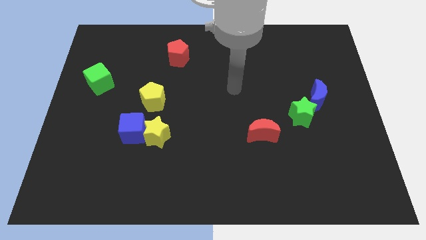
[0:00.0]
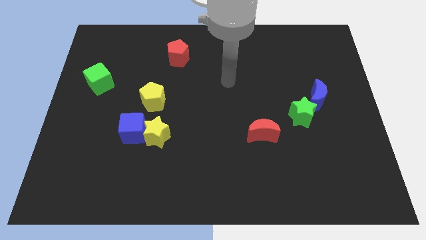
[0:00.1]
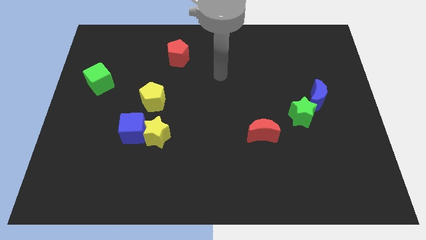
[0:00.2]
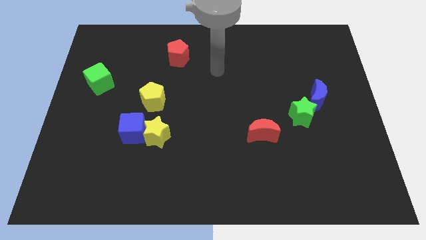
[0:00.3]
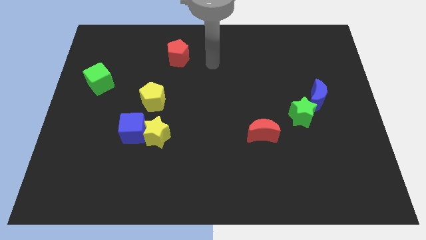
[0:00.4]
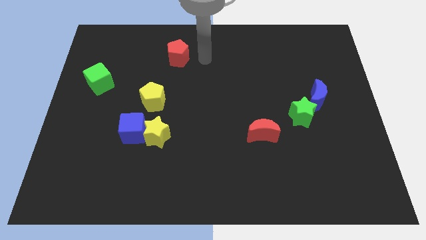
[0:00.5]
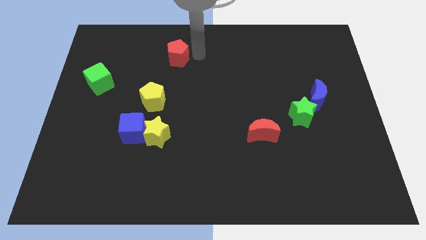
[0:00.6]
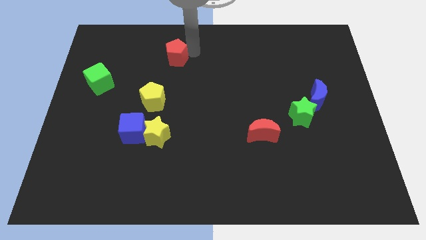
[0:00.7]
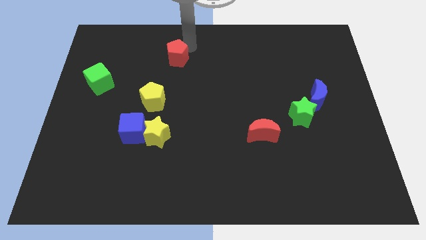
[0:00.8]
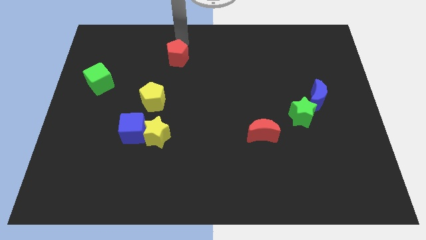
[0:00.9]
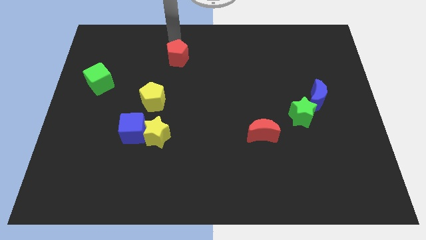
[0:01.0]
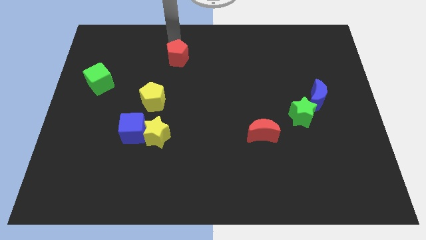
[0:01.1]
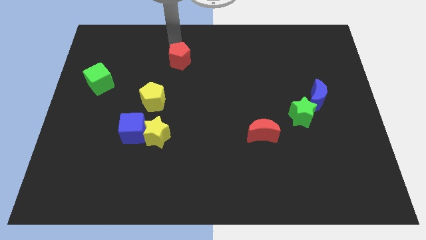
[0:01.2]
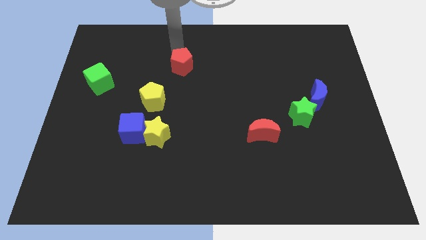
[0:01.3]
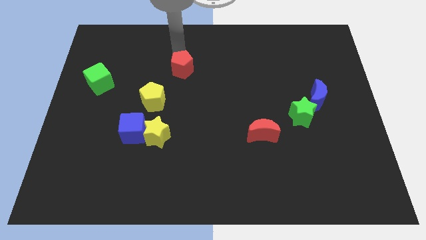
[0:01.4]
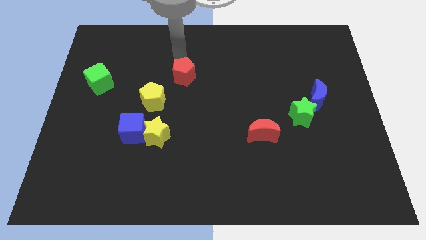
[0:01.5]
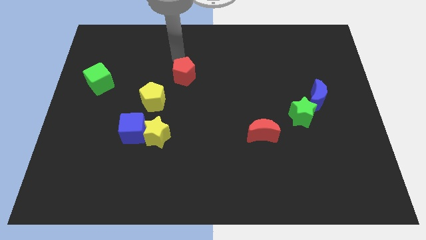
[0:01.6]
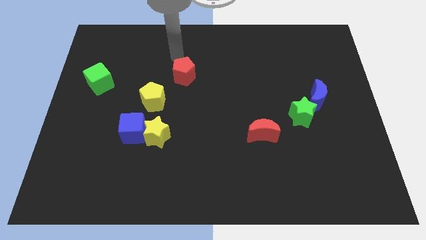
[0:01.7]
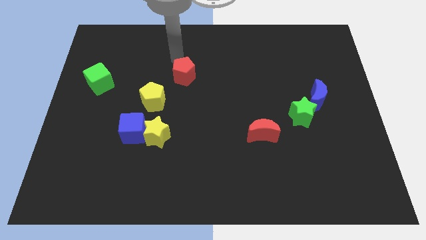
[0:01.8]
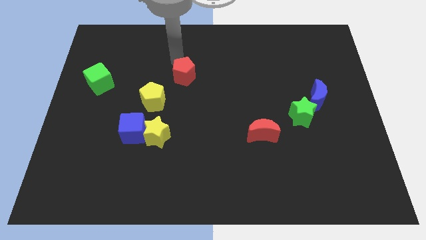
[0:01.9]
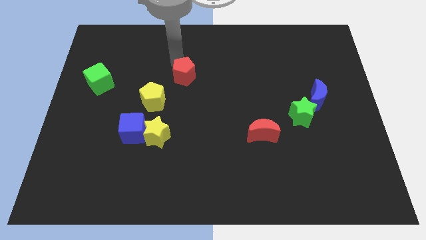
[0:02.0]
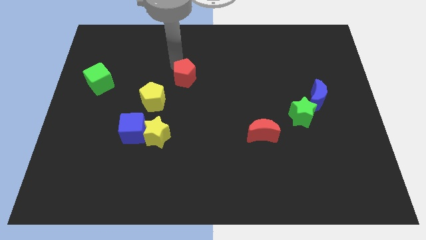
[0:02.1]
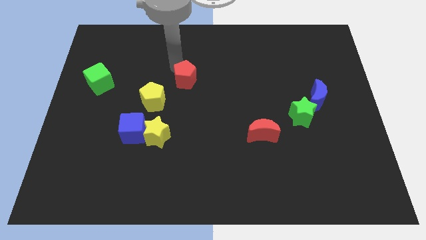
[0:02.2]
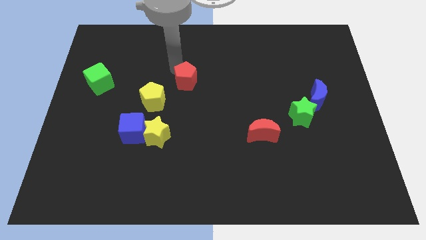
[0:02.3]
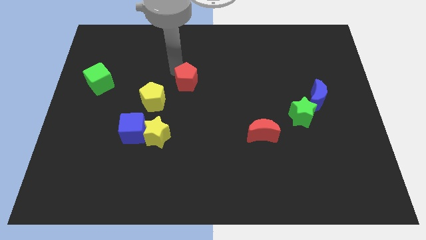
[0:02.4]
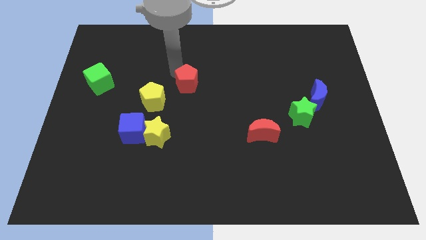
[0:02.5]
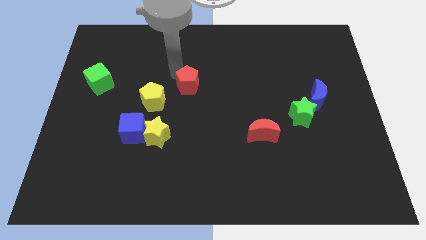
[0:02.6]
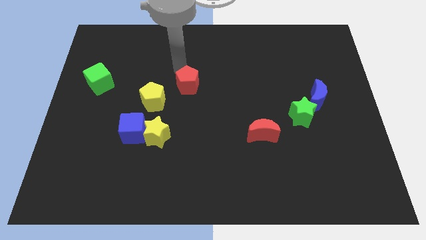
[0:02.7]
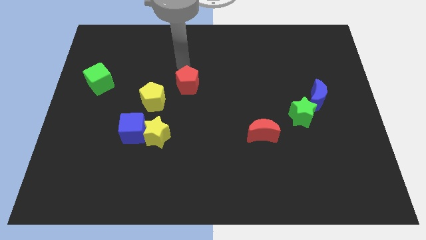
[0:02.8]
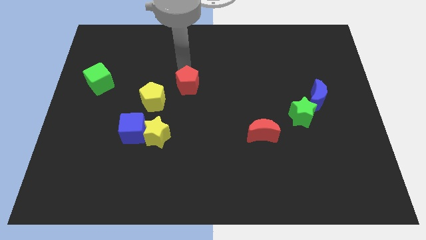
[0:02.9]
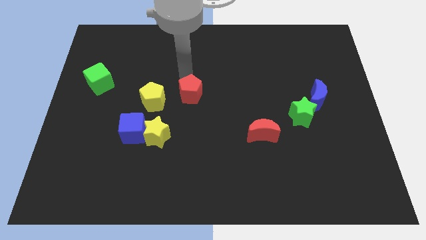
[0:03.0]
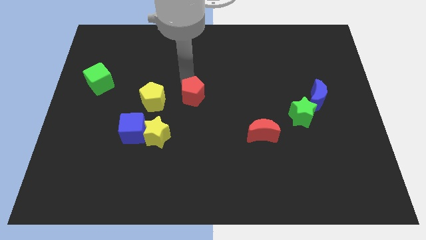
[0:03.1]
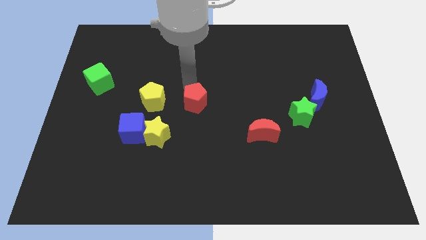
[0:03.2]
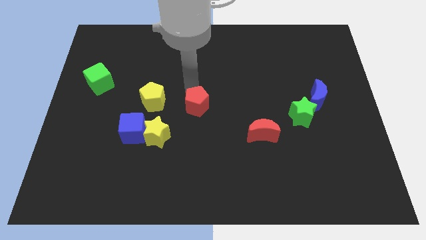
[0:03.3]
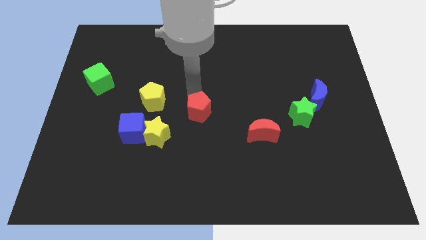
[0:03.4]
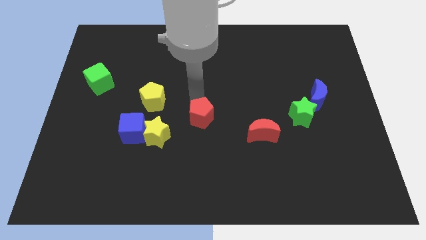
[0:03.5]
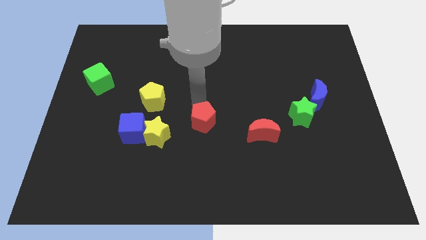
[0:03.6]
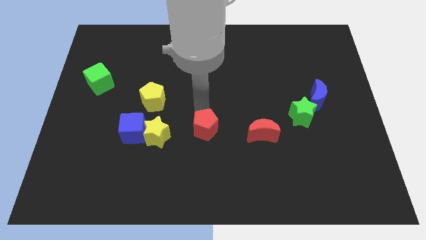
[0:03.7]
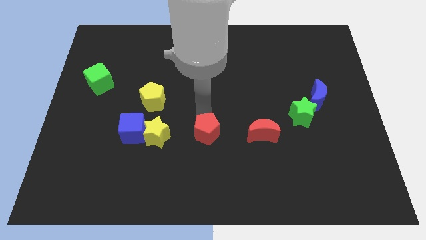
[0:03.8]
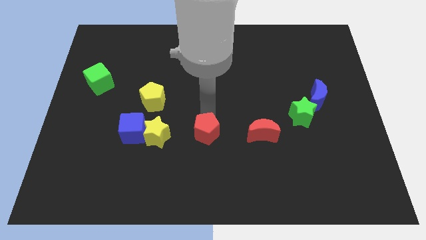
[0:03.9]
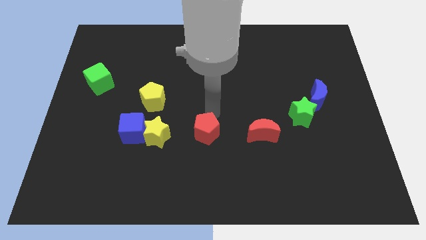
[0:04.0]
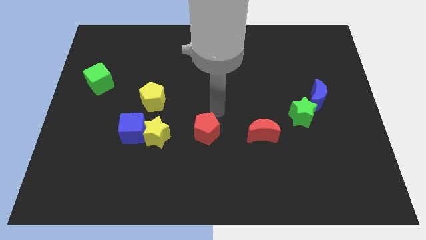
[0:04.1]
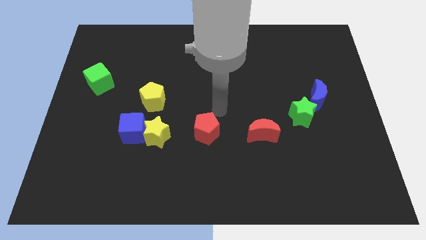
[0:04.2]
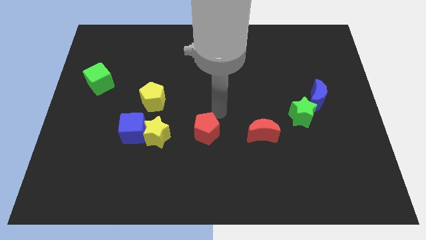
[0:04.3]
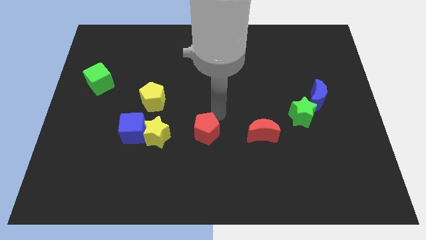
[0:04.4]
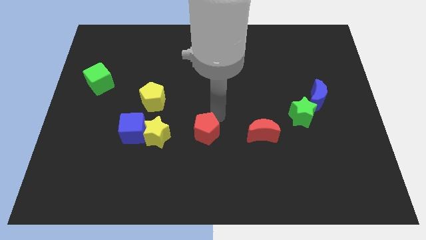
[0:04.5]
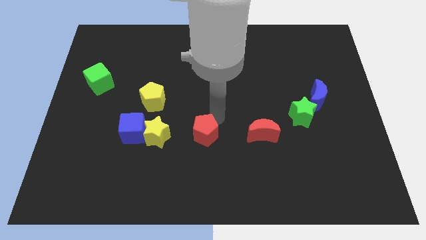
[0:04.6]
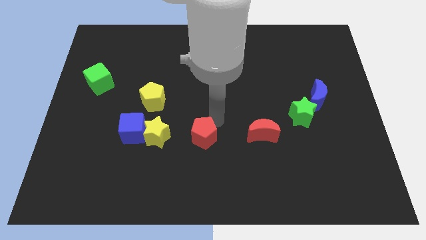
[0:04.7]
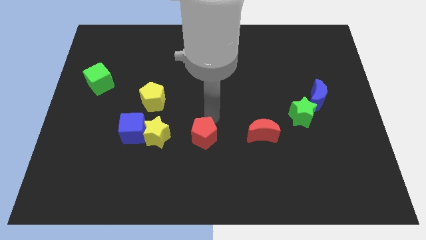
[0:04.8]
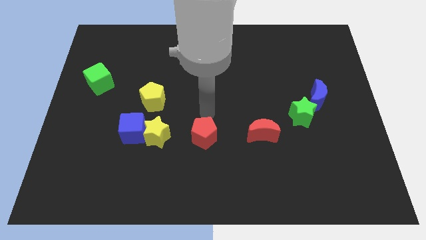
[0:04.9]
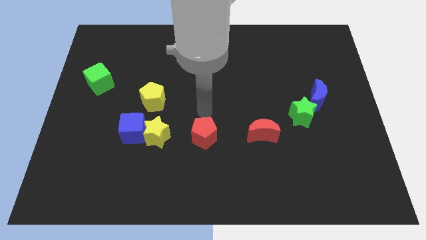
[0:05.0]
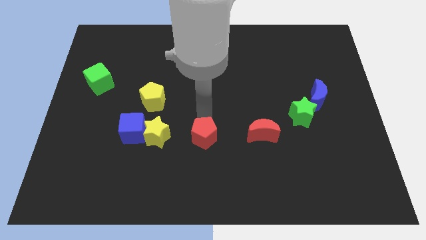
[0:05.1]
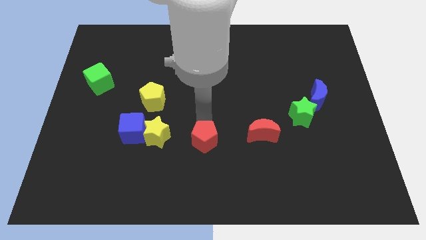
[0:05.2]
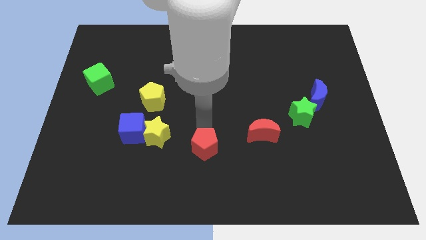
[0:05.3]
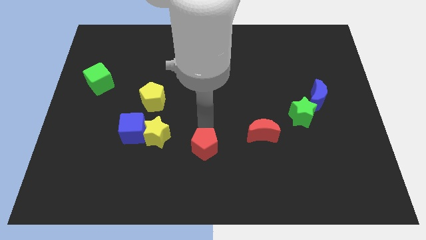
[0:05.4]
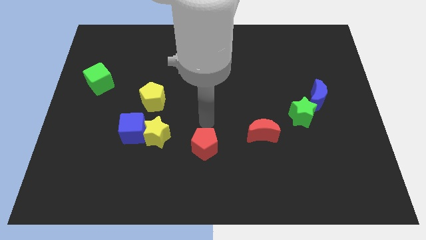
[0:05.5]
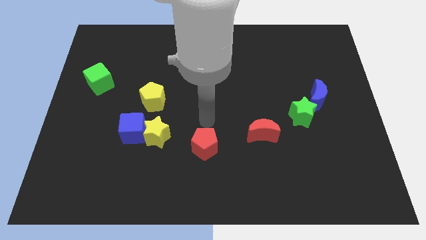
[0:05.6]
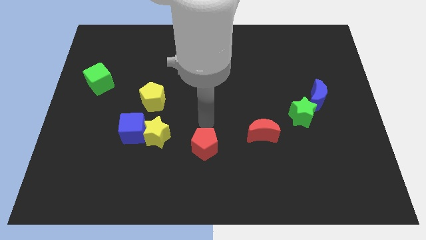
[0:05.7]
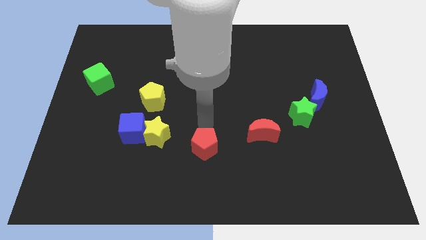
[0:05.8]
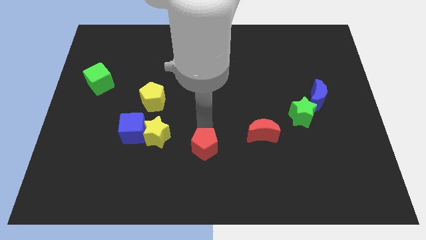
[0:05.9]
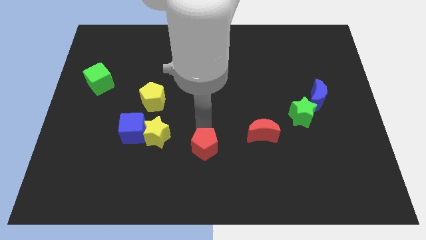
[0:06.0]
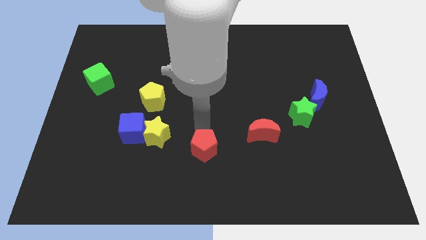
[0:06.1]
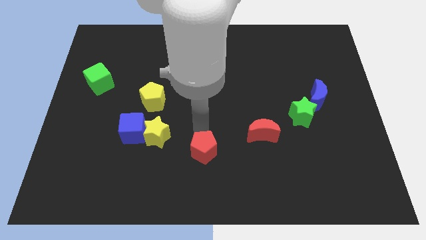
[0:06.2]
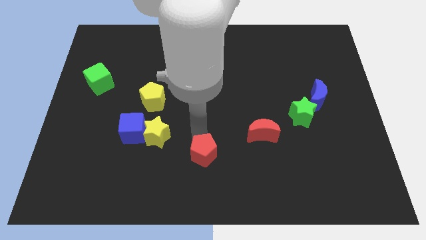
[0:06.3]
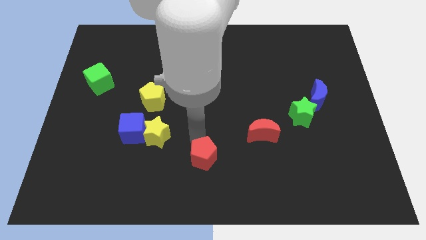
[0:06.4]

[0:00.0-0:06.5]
move the red pentagon to the bottom

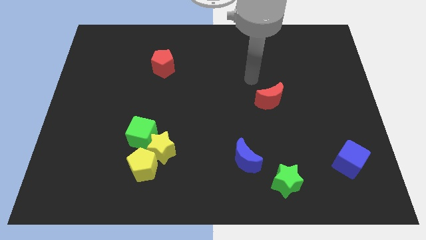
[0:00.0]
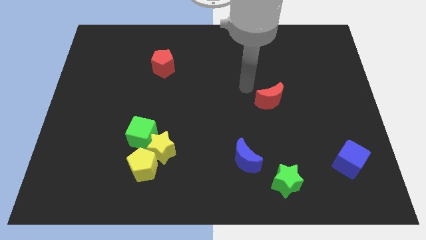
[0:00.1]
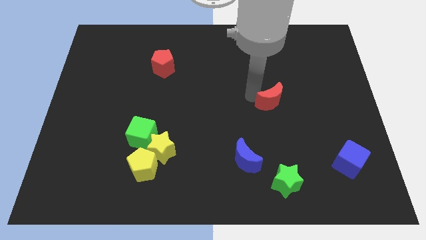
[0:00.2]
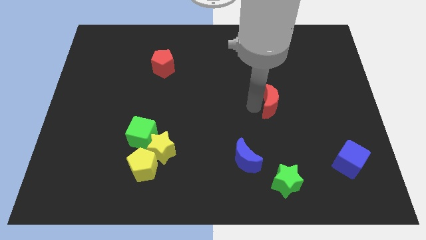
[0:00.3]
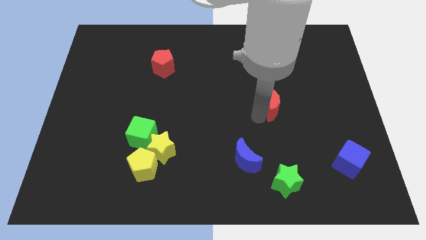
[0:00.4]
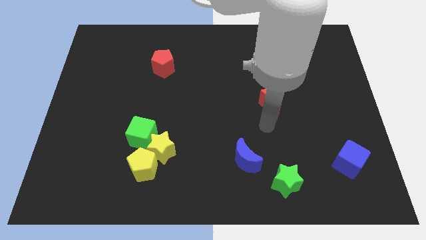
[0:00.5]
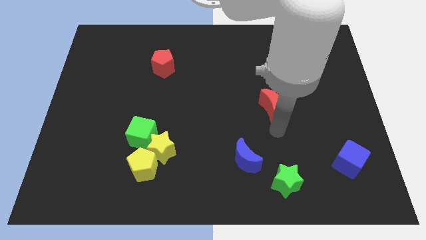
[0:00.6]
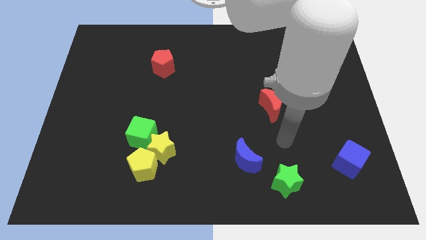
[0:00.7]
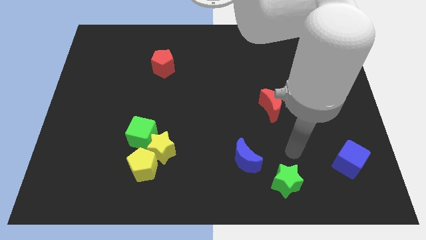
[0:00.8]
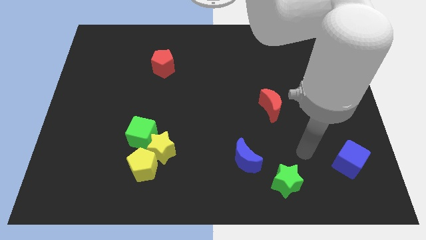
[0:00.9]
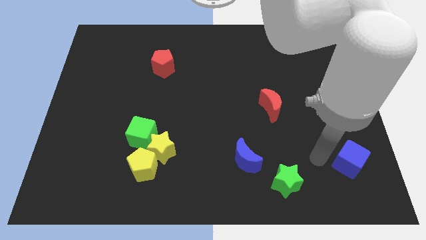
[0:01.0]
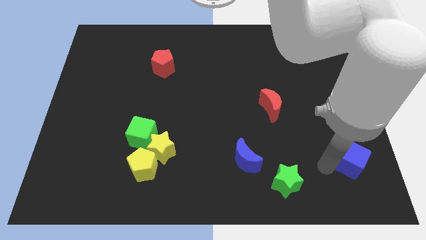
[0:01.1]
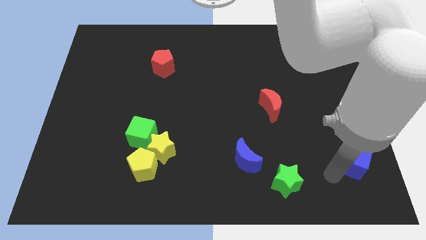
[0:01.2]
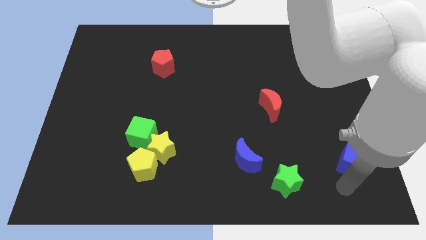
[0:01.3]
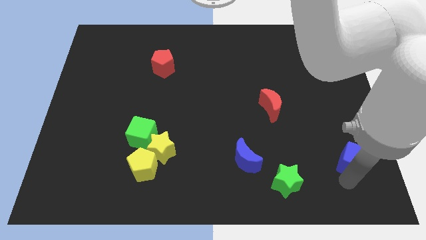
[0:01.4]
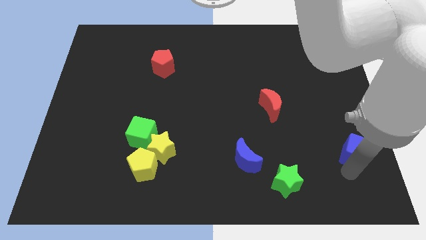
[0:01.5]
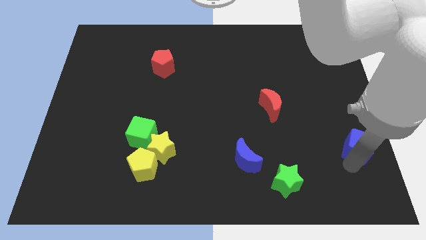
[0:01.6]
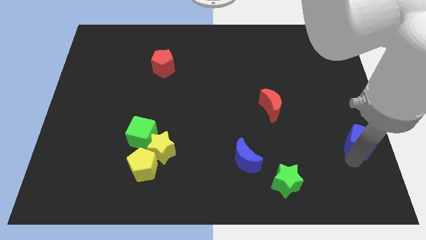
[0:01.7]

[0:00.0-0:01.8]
push the blue cube to the right side of the board
